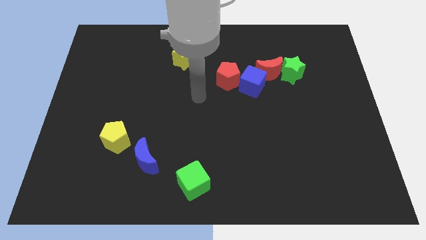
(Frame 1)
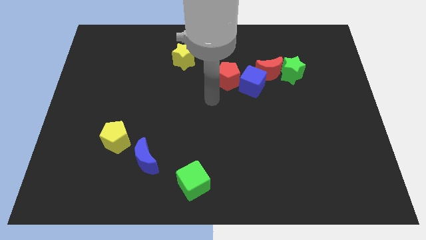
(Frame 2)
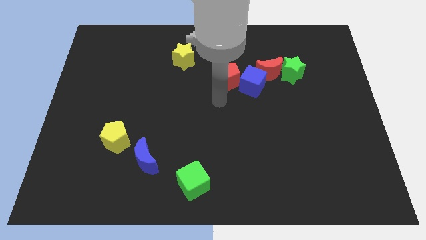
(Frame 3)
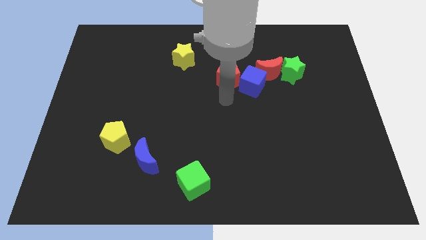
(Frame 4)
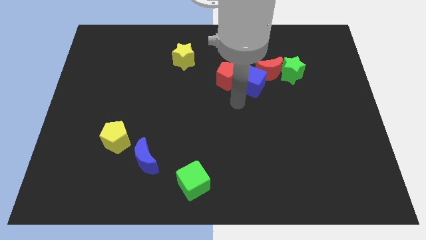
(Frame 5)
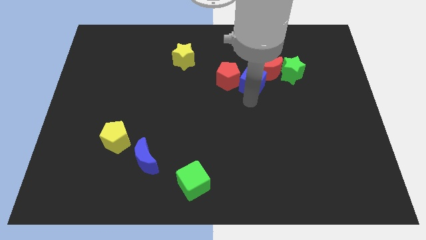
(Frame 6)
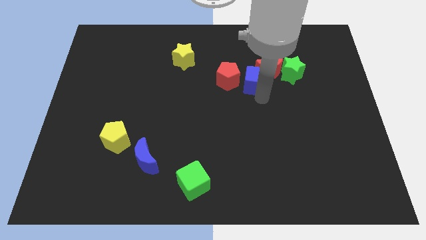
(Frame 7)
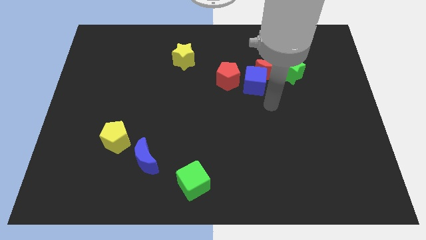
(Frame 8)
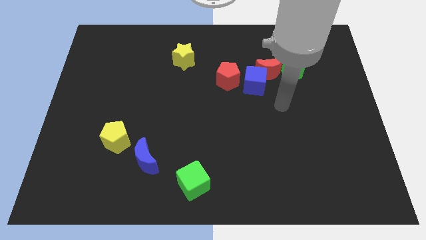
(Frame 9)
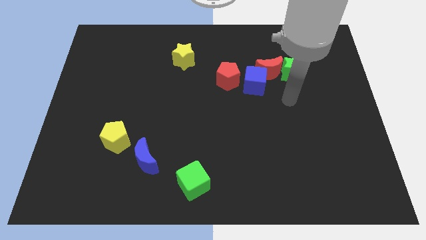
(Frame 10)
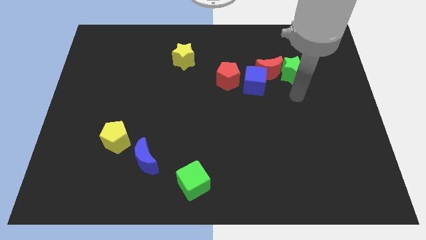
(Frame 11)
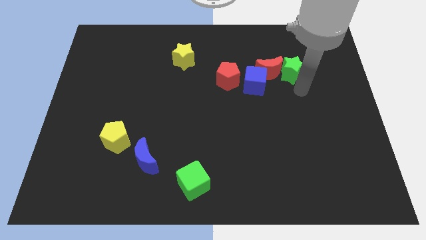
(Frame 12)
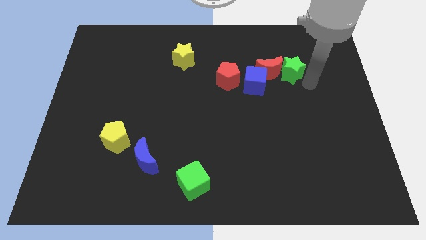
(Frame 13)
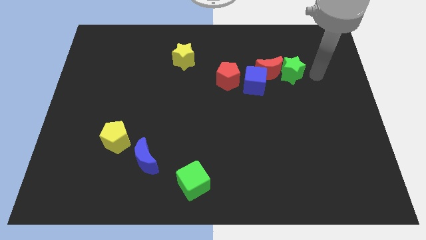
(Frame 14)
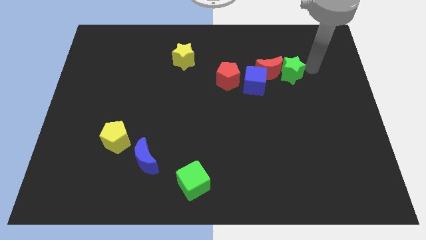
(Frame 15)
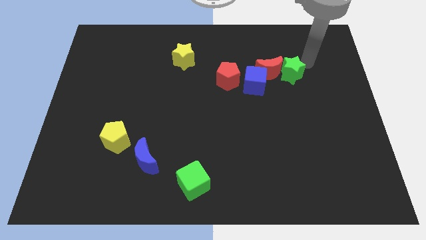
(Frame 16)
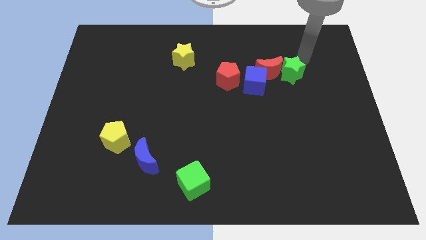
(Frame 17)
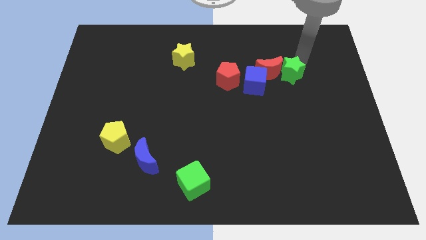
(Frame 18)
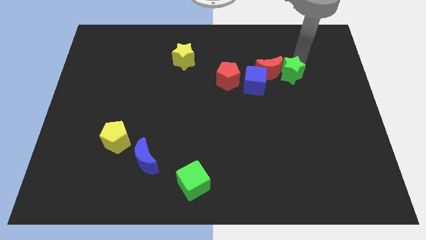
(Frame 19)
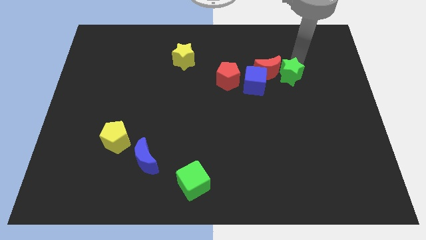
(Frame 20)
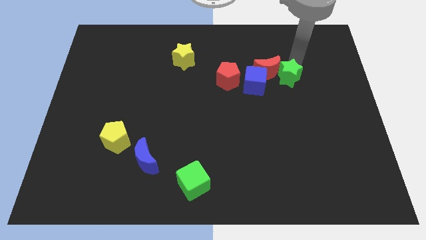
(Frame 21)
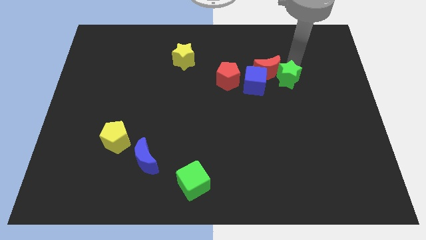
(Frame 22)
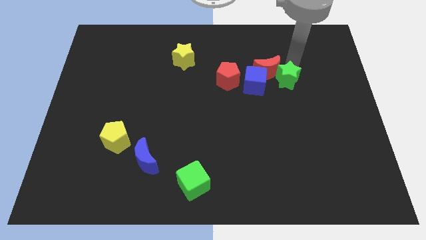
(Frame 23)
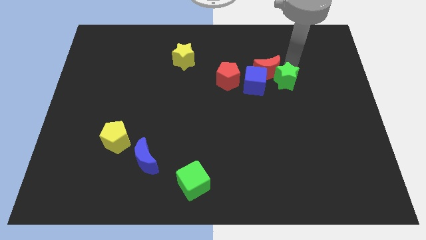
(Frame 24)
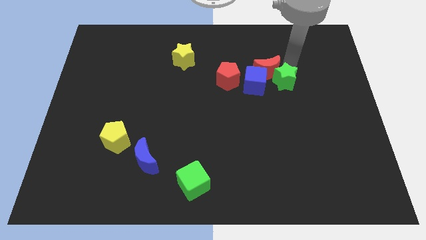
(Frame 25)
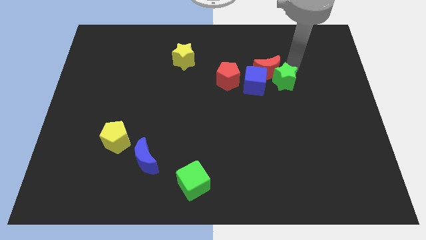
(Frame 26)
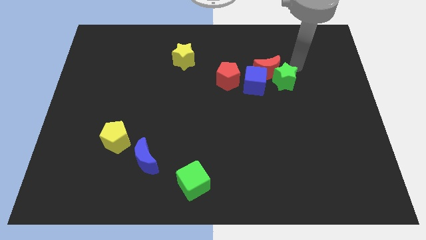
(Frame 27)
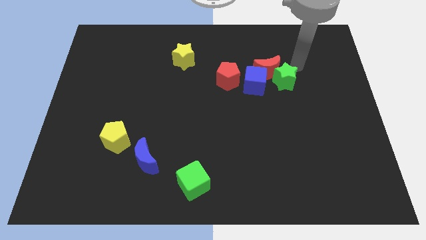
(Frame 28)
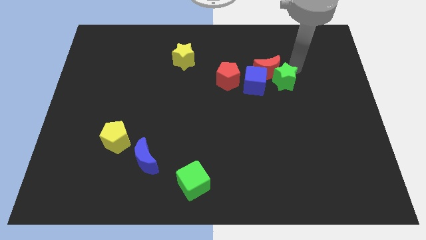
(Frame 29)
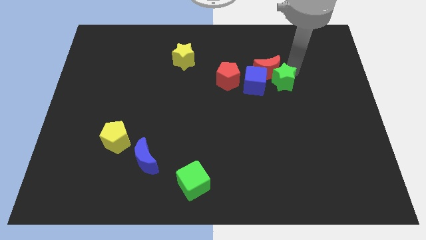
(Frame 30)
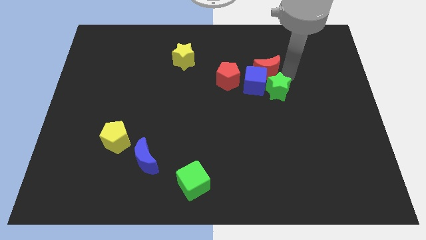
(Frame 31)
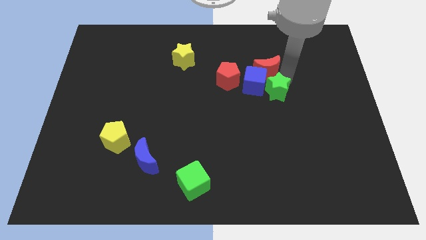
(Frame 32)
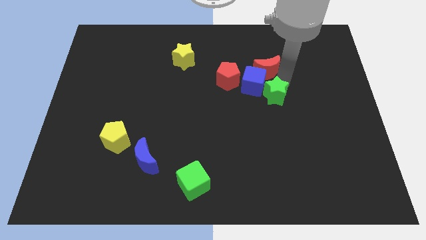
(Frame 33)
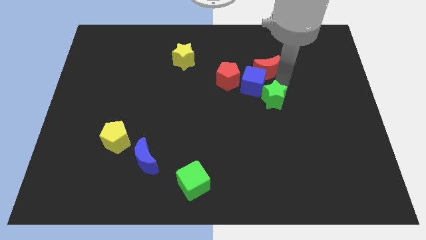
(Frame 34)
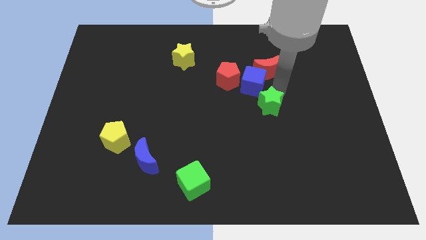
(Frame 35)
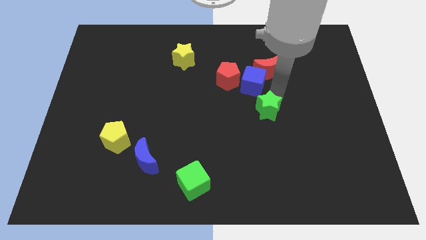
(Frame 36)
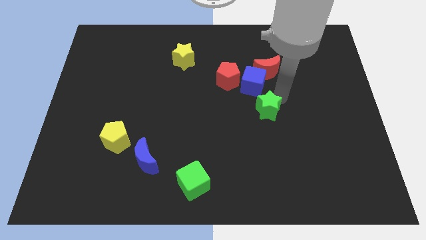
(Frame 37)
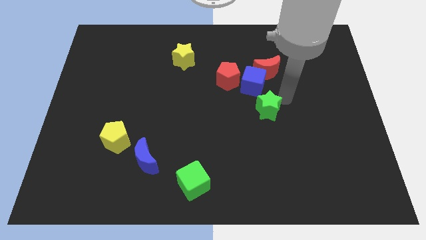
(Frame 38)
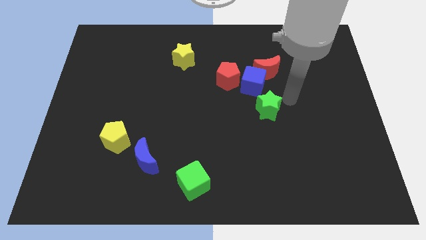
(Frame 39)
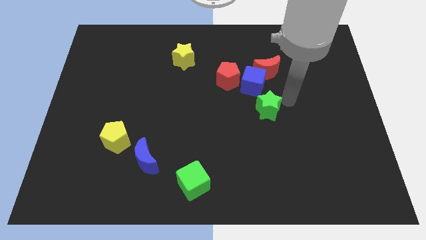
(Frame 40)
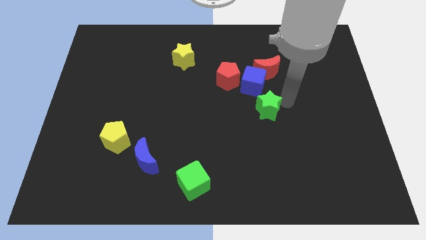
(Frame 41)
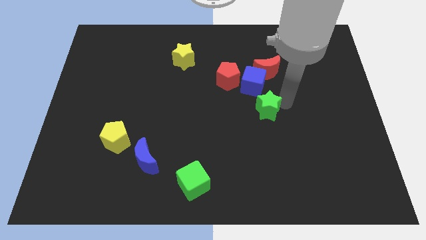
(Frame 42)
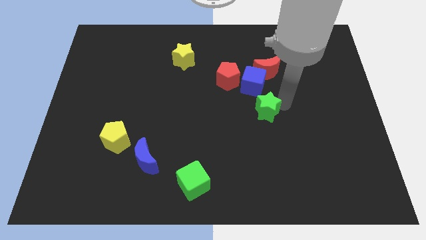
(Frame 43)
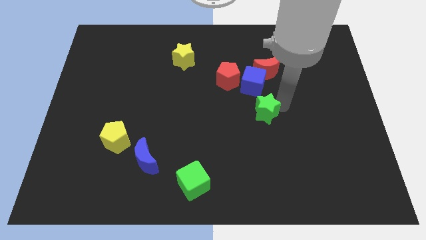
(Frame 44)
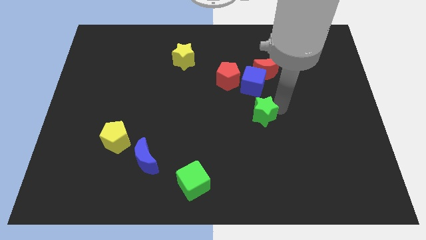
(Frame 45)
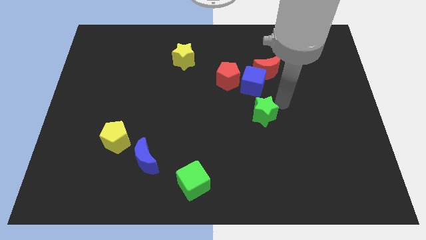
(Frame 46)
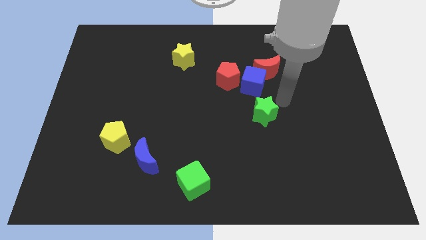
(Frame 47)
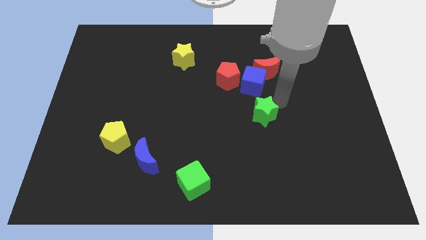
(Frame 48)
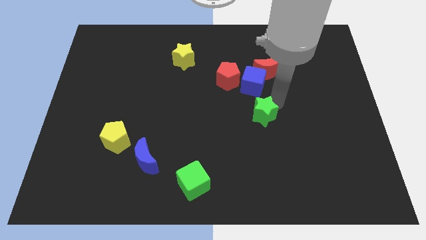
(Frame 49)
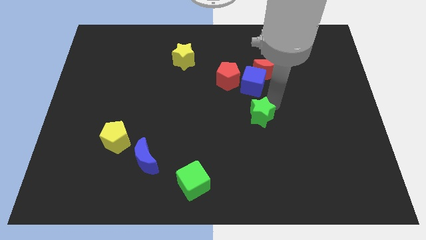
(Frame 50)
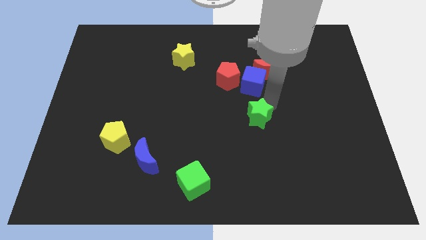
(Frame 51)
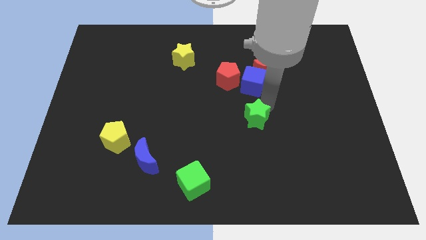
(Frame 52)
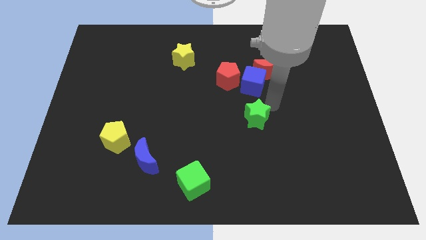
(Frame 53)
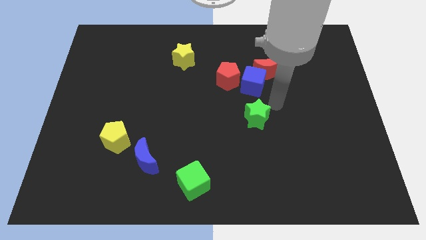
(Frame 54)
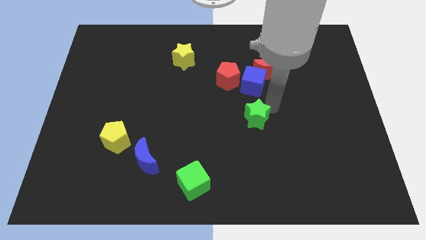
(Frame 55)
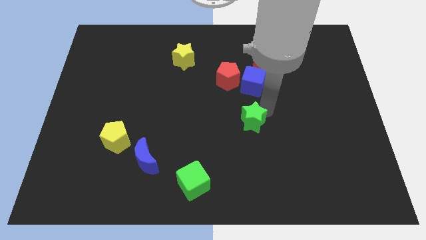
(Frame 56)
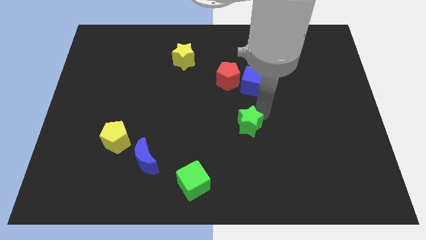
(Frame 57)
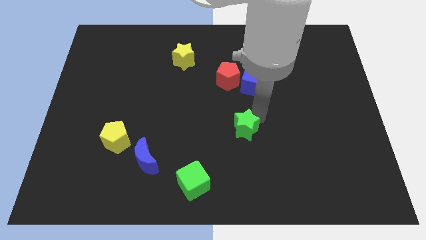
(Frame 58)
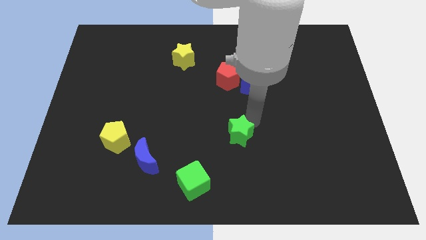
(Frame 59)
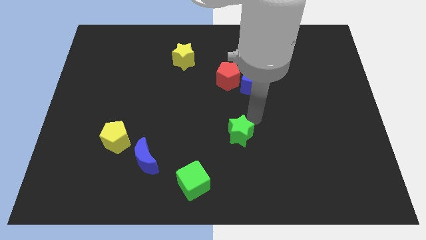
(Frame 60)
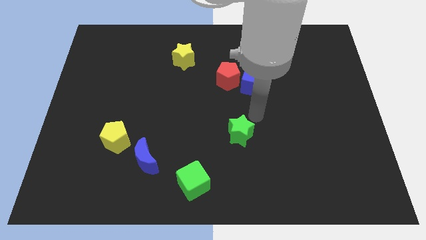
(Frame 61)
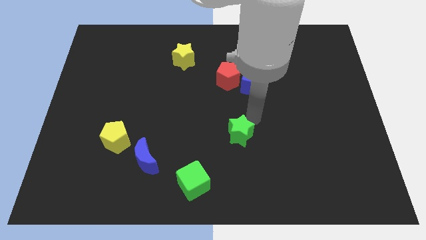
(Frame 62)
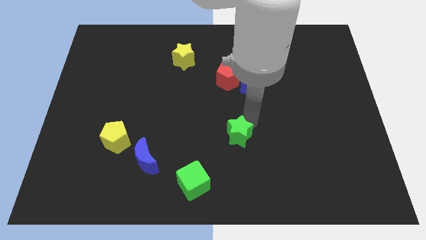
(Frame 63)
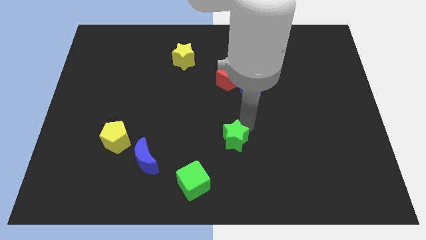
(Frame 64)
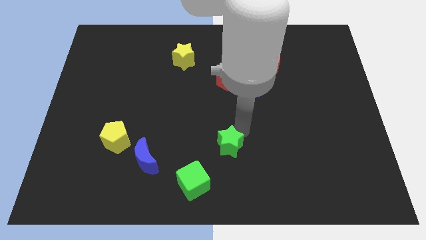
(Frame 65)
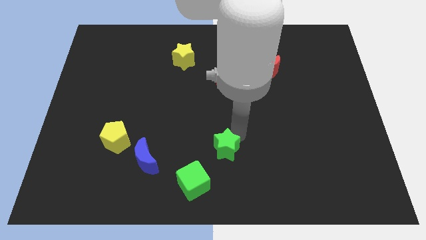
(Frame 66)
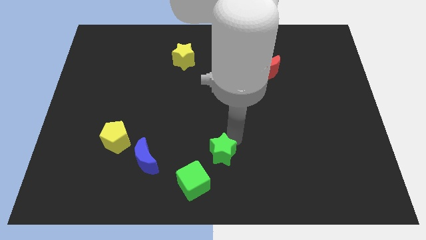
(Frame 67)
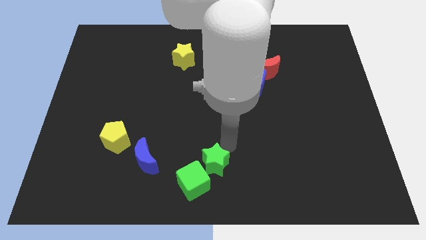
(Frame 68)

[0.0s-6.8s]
push the green star to the green cube

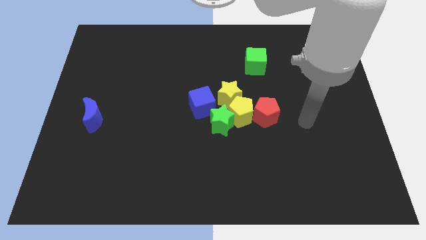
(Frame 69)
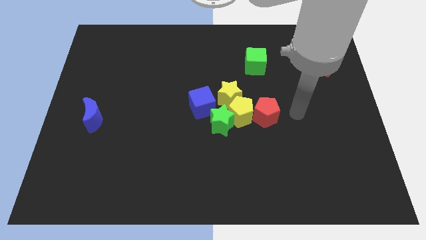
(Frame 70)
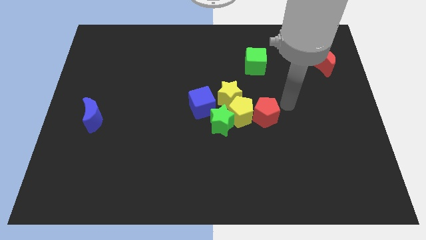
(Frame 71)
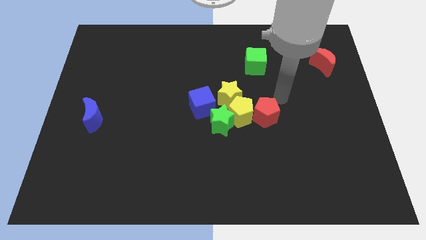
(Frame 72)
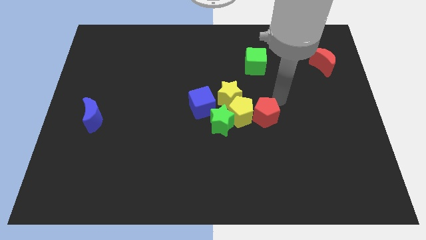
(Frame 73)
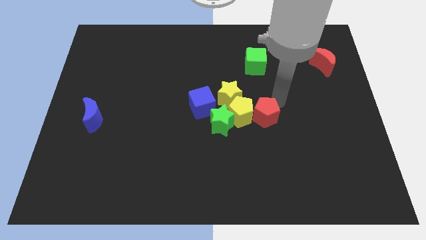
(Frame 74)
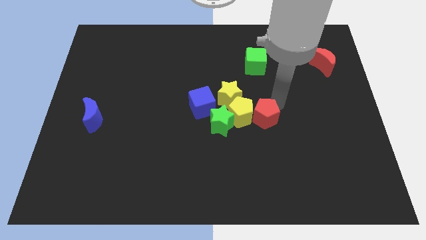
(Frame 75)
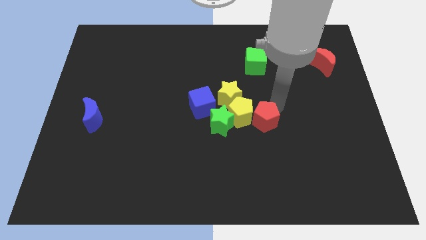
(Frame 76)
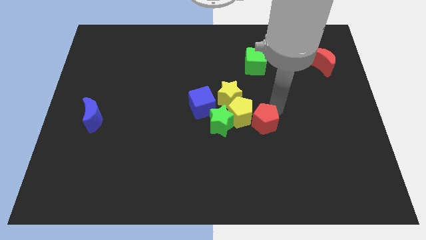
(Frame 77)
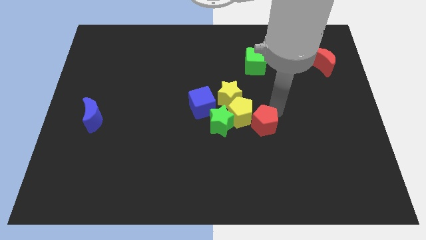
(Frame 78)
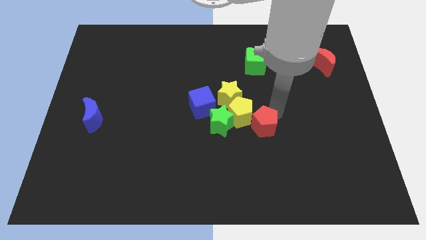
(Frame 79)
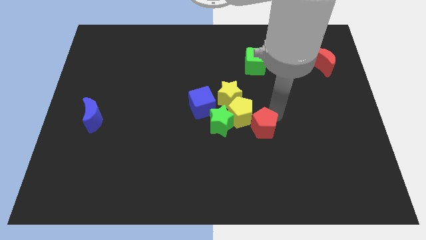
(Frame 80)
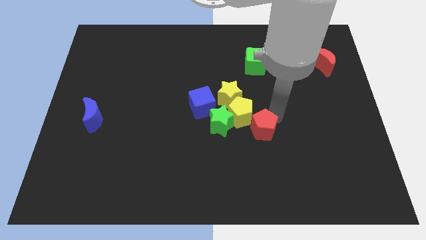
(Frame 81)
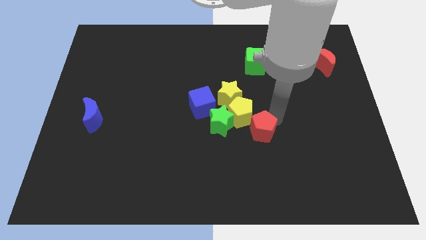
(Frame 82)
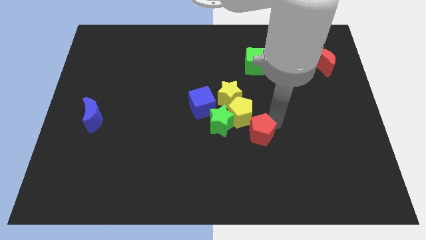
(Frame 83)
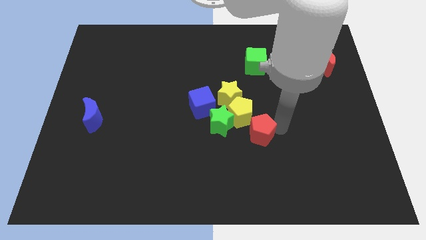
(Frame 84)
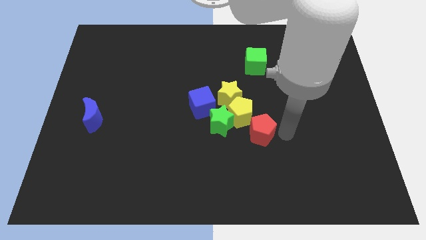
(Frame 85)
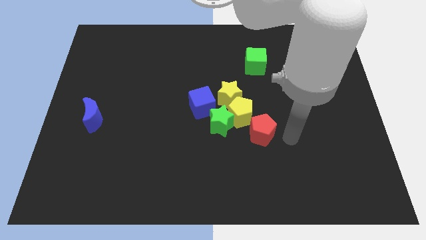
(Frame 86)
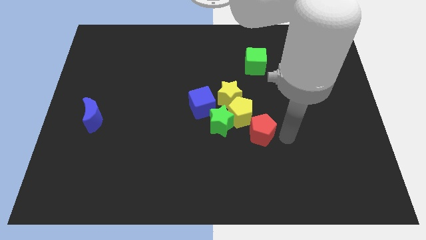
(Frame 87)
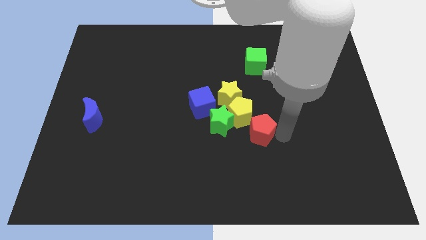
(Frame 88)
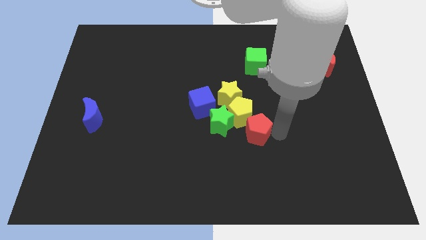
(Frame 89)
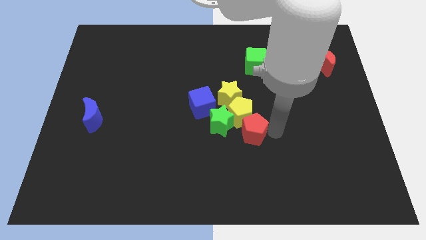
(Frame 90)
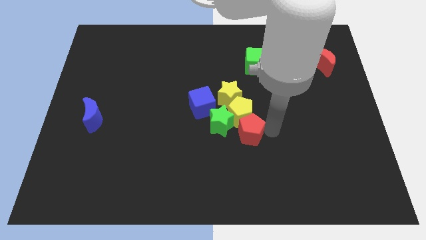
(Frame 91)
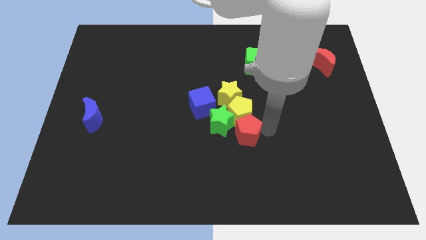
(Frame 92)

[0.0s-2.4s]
put the red pentagon close to the green star
